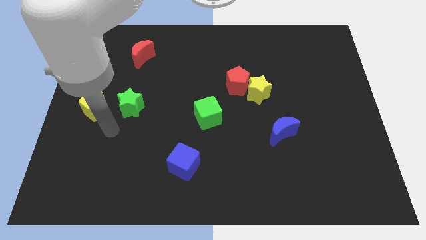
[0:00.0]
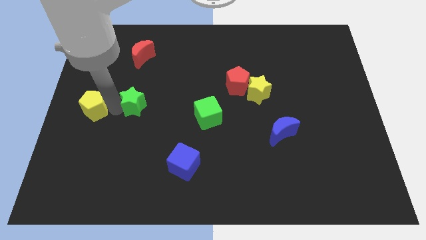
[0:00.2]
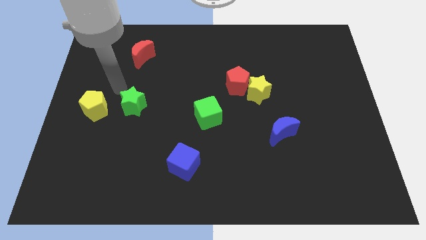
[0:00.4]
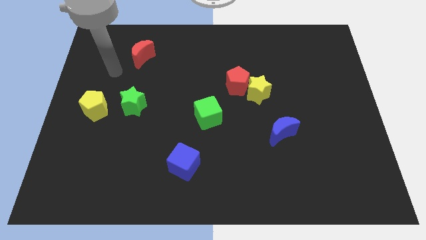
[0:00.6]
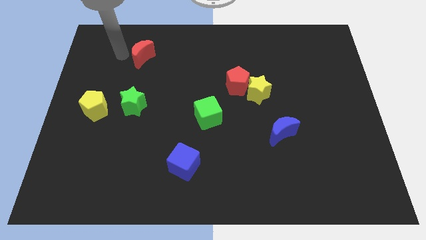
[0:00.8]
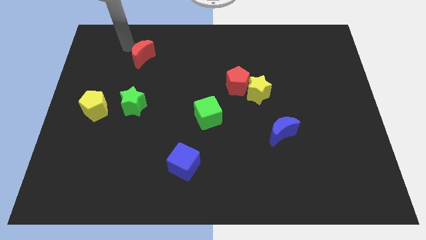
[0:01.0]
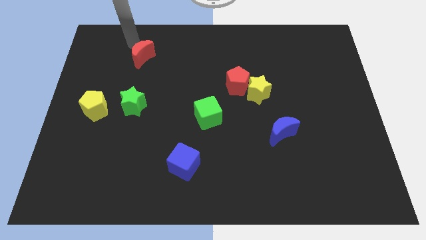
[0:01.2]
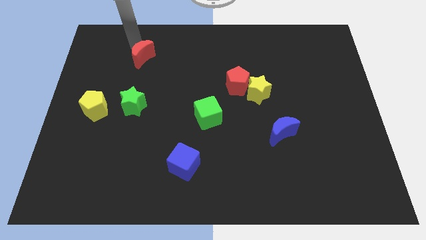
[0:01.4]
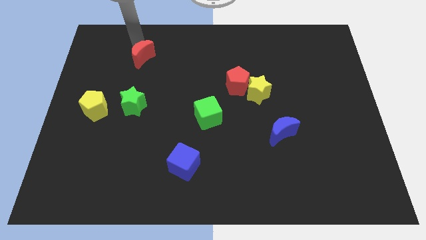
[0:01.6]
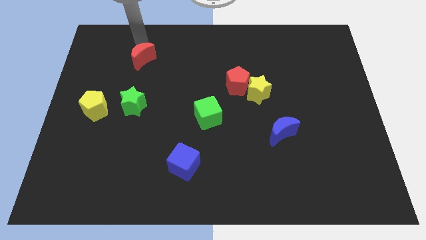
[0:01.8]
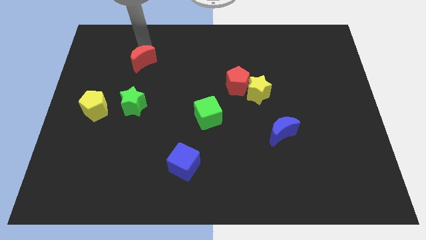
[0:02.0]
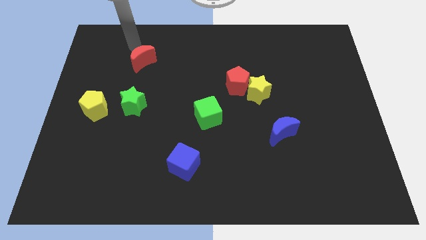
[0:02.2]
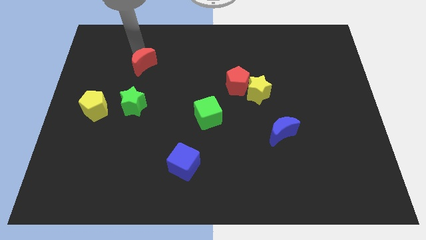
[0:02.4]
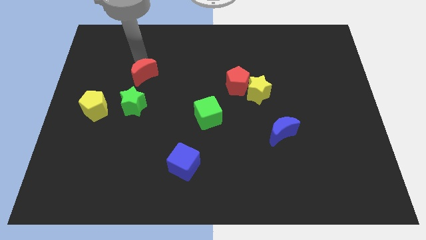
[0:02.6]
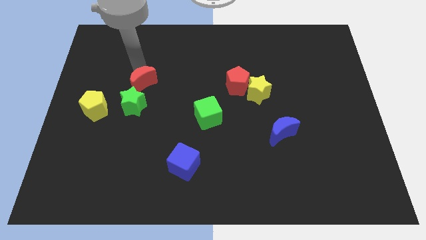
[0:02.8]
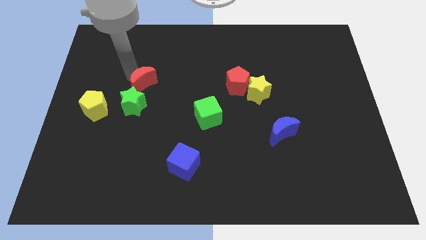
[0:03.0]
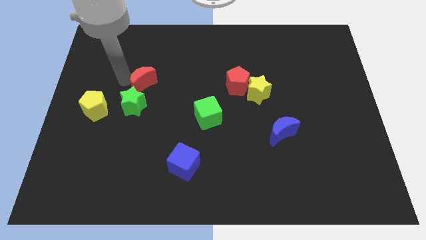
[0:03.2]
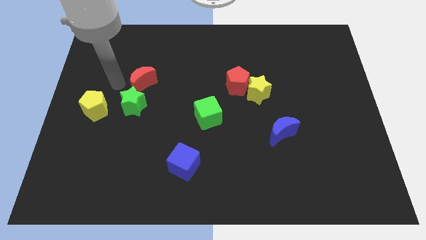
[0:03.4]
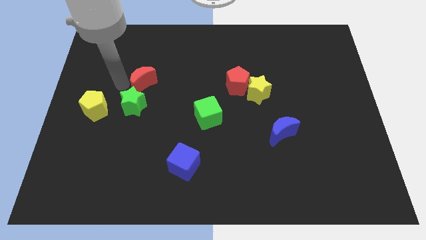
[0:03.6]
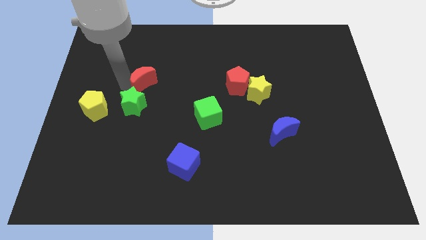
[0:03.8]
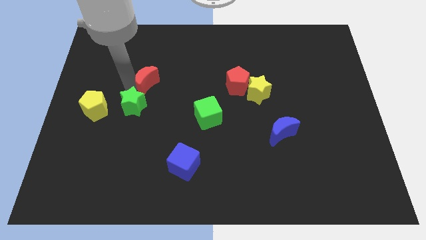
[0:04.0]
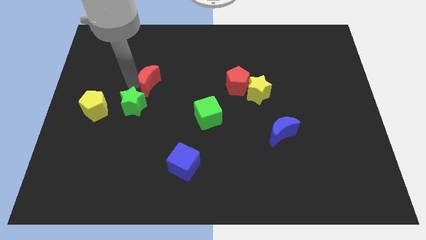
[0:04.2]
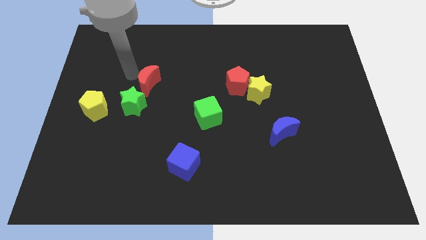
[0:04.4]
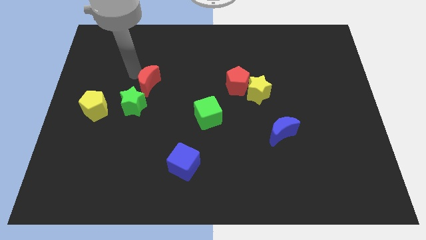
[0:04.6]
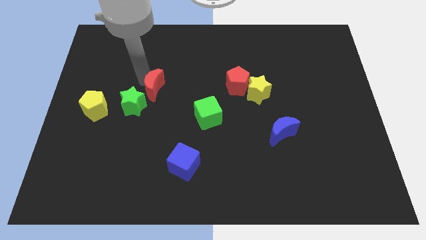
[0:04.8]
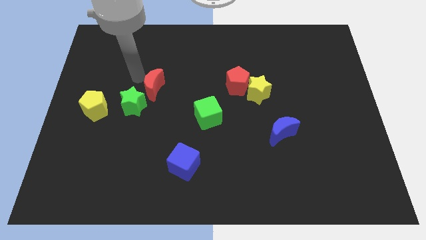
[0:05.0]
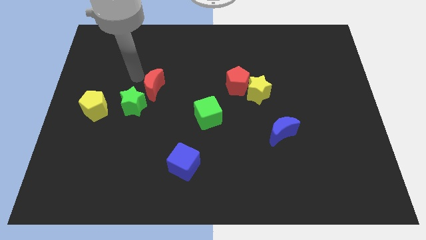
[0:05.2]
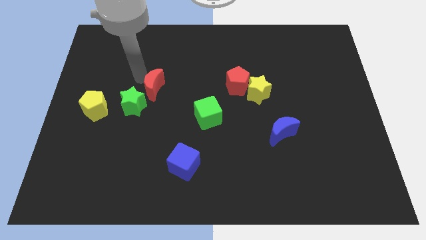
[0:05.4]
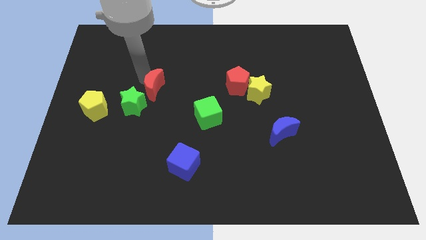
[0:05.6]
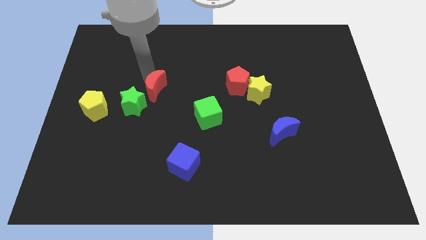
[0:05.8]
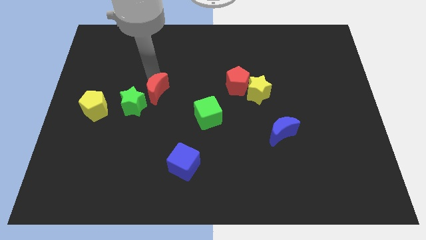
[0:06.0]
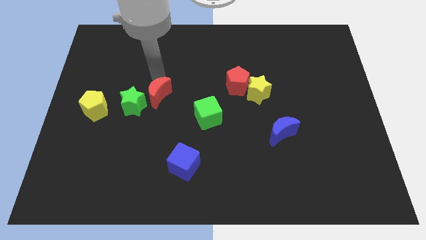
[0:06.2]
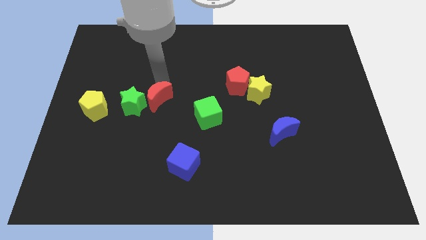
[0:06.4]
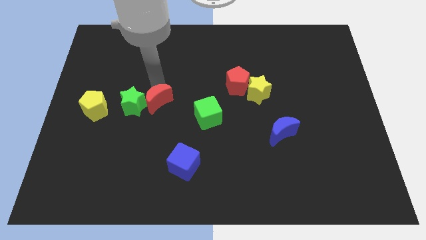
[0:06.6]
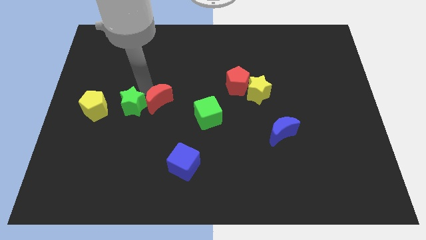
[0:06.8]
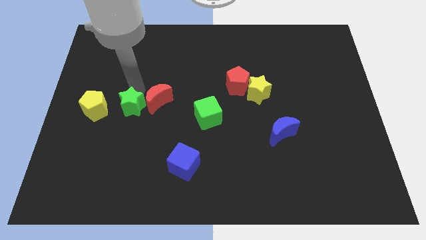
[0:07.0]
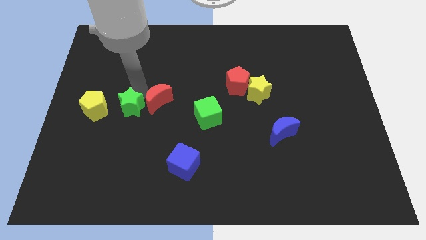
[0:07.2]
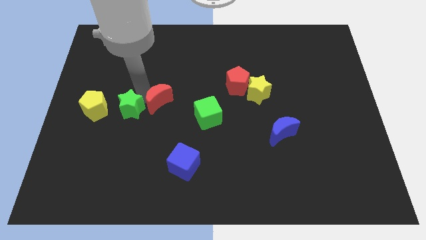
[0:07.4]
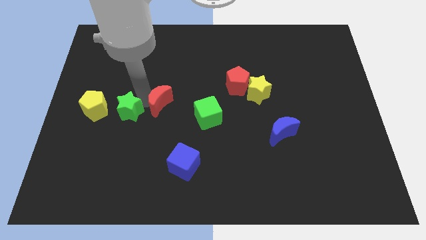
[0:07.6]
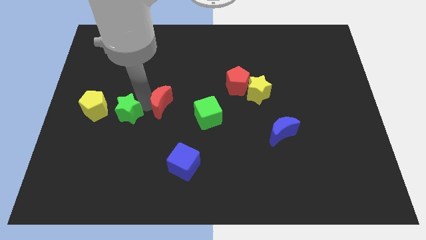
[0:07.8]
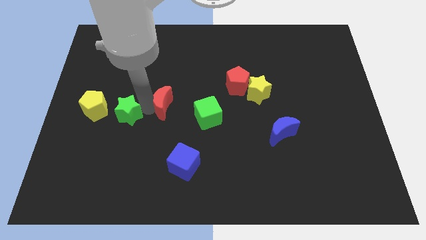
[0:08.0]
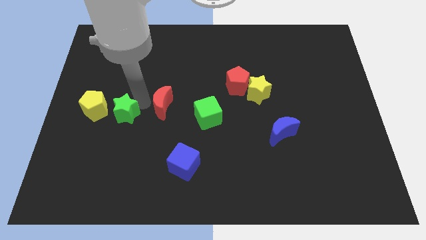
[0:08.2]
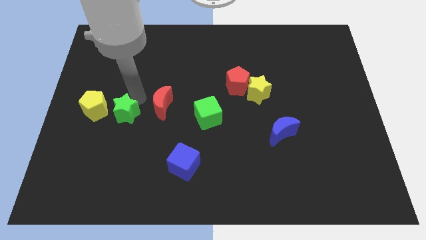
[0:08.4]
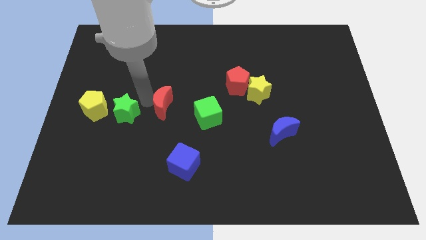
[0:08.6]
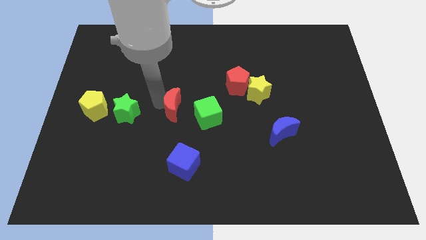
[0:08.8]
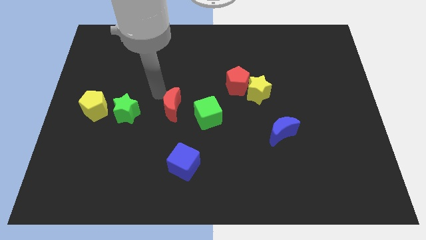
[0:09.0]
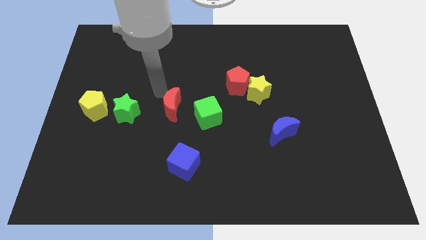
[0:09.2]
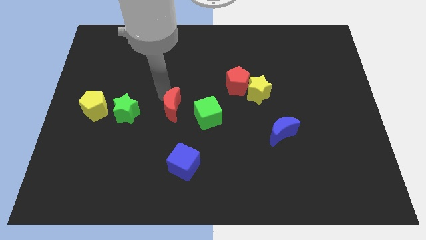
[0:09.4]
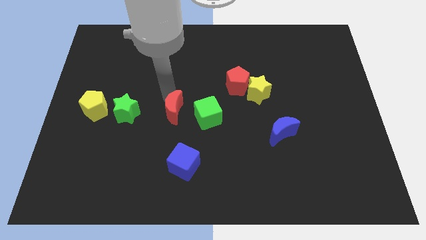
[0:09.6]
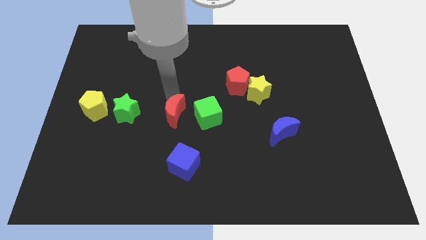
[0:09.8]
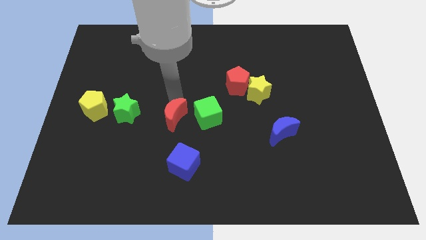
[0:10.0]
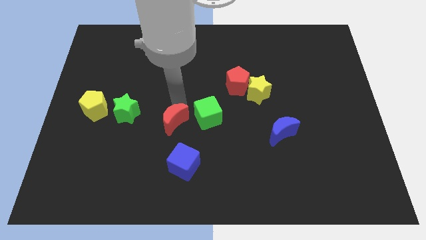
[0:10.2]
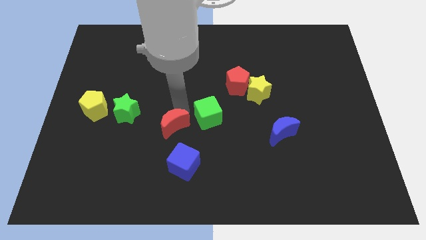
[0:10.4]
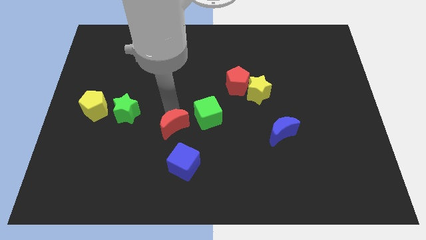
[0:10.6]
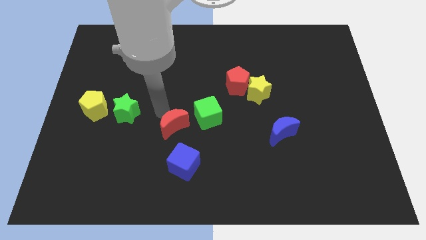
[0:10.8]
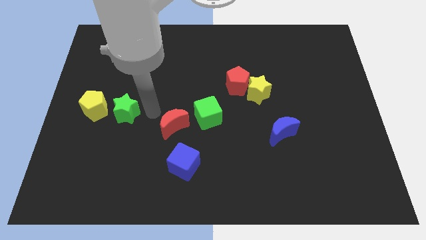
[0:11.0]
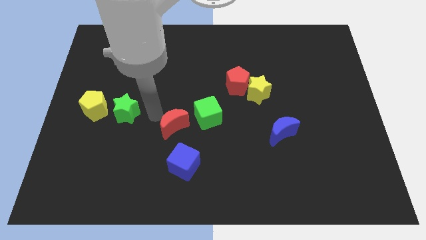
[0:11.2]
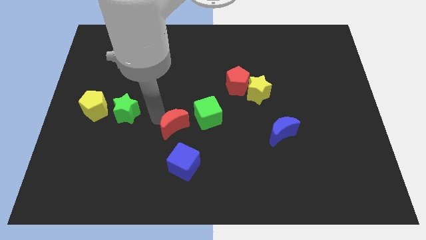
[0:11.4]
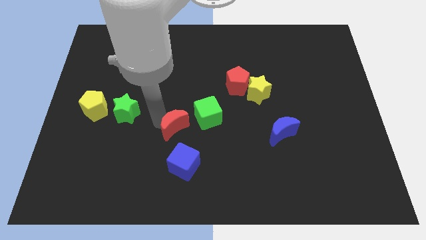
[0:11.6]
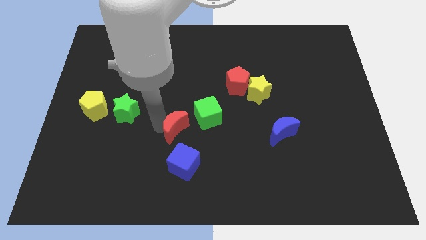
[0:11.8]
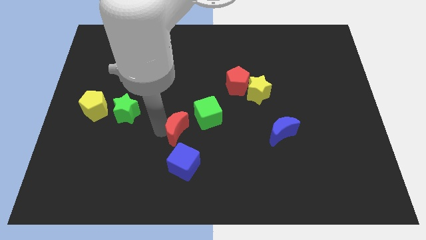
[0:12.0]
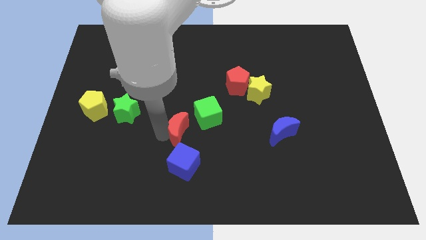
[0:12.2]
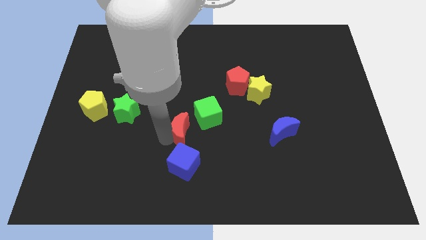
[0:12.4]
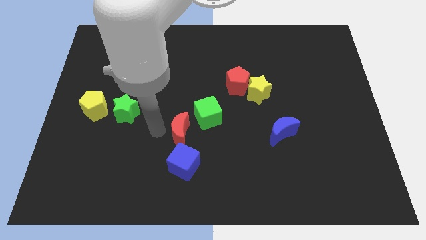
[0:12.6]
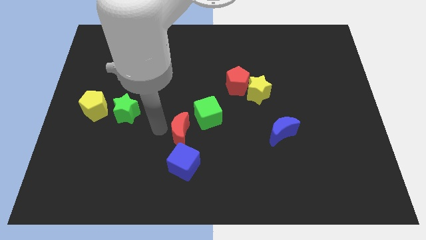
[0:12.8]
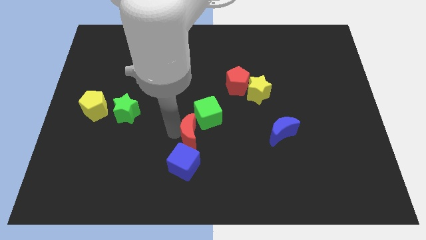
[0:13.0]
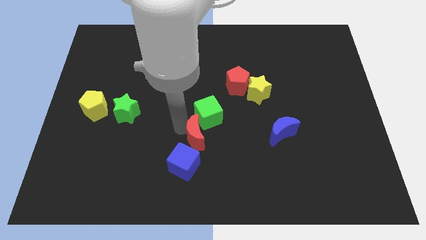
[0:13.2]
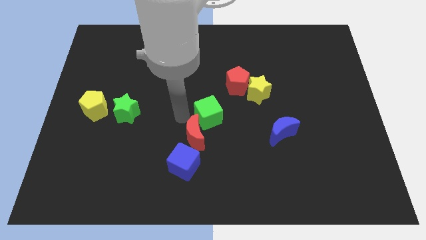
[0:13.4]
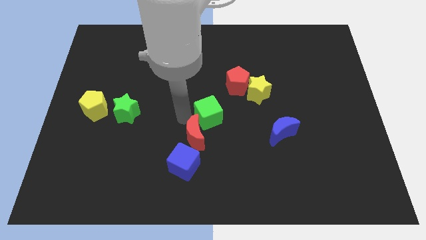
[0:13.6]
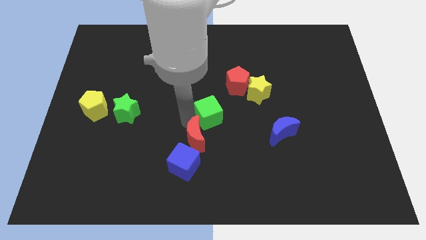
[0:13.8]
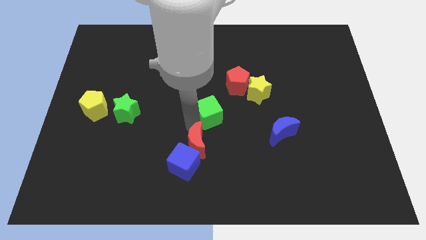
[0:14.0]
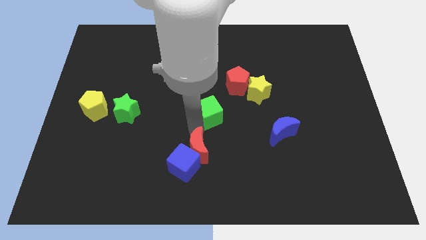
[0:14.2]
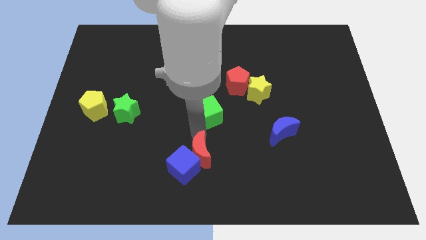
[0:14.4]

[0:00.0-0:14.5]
put the red moon to the bottom
